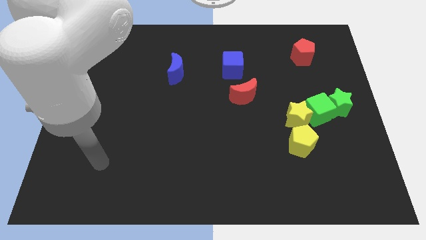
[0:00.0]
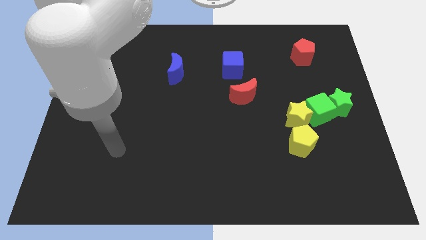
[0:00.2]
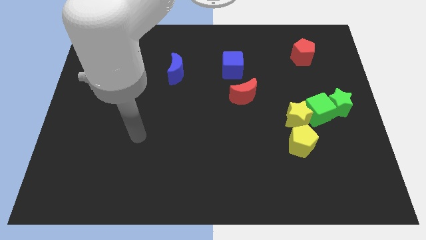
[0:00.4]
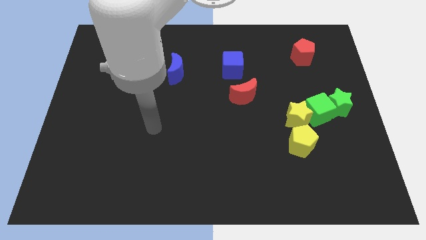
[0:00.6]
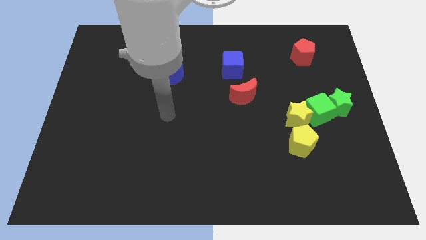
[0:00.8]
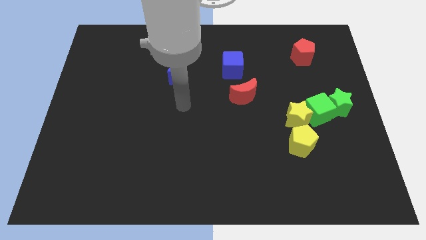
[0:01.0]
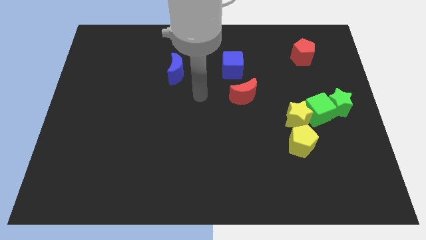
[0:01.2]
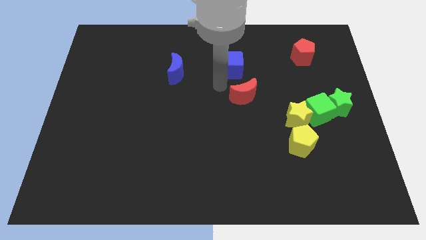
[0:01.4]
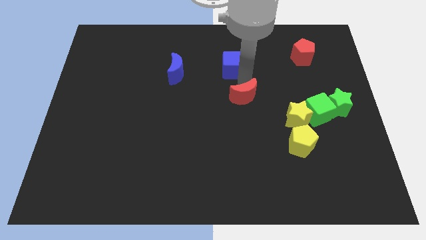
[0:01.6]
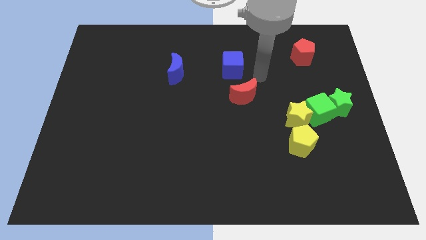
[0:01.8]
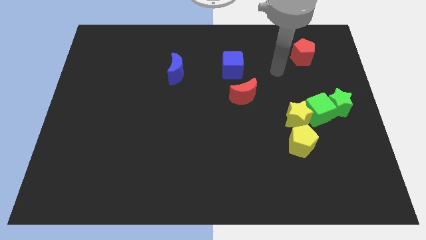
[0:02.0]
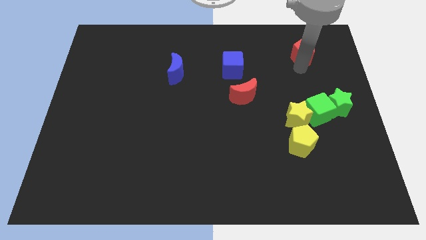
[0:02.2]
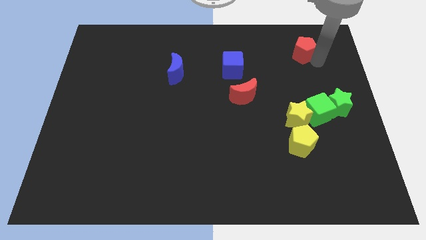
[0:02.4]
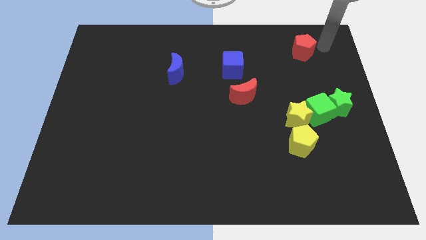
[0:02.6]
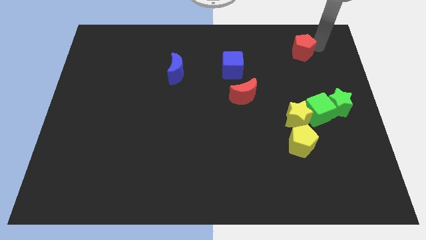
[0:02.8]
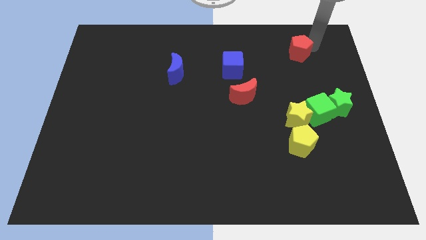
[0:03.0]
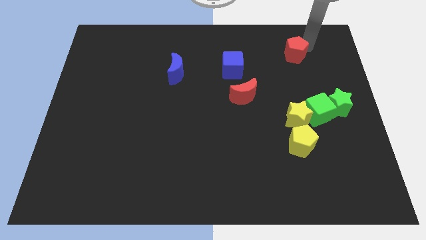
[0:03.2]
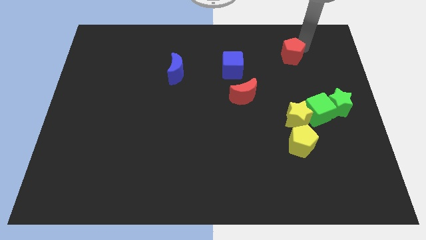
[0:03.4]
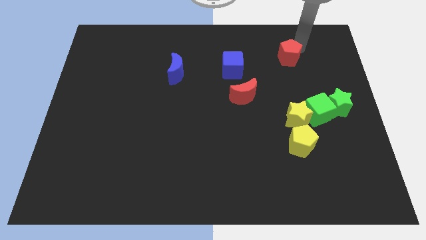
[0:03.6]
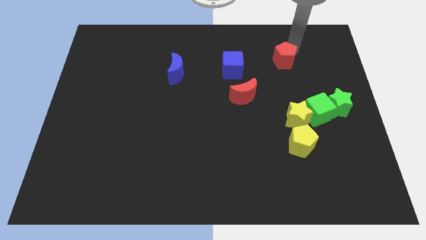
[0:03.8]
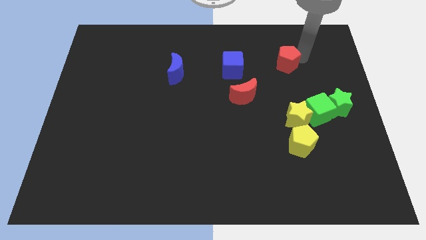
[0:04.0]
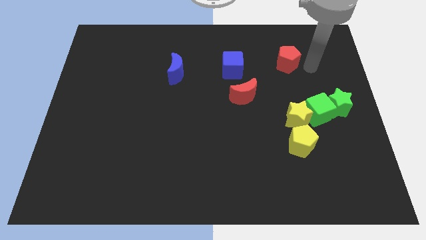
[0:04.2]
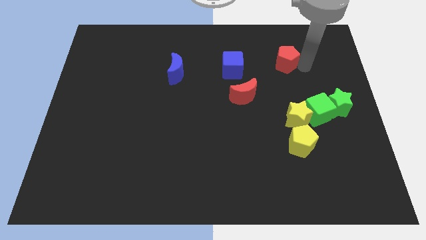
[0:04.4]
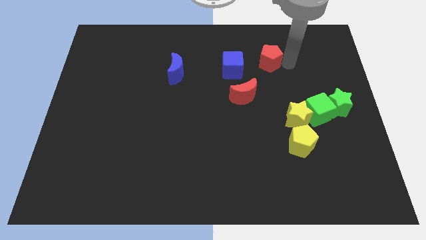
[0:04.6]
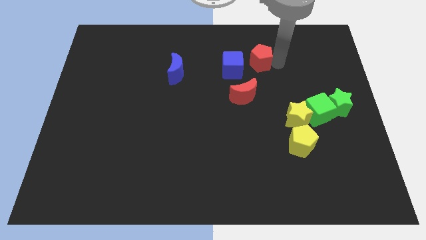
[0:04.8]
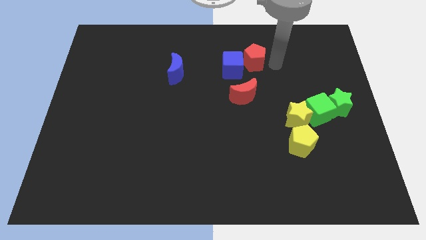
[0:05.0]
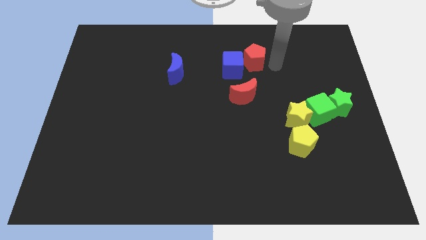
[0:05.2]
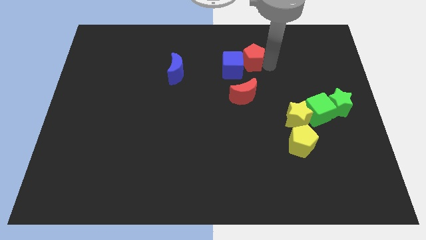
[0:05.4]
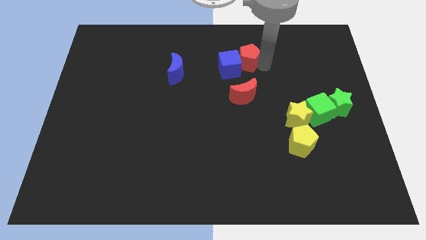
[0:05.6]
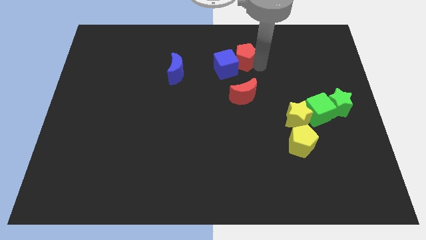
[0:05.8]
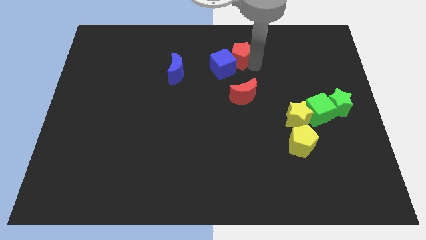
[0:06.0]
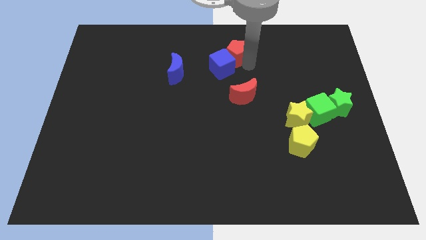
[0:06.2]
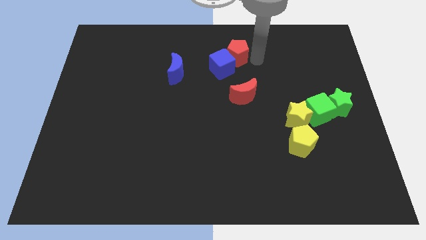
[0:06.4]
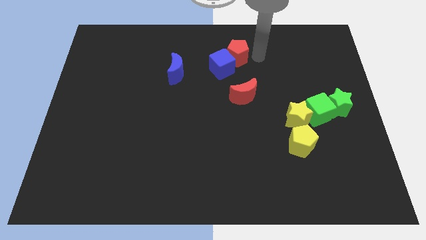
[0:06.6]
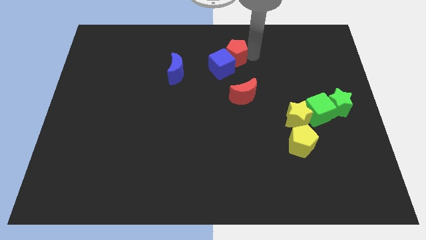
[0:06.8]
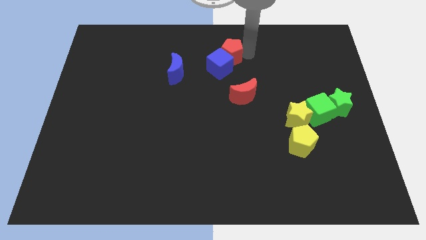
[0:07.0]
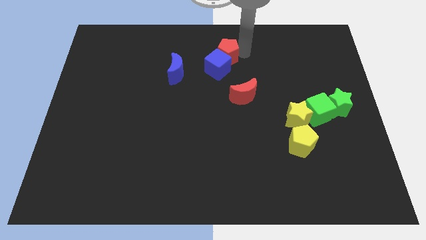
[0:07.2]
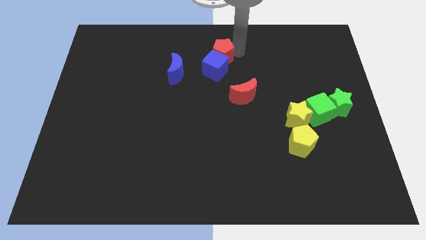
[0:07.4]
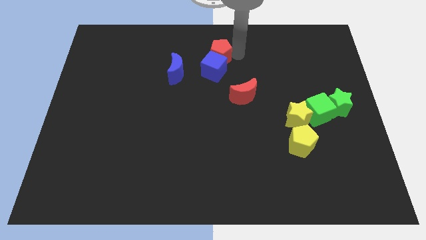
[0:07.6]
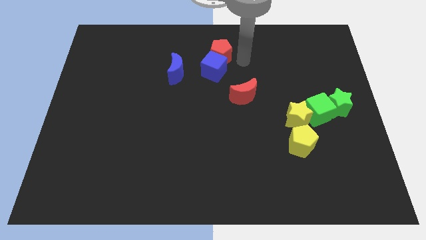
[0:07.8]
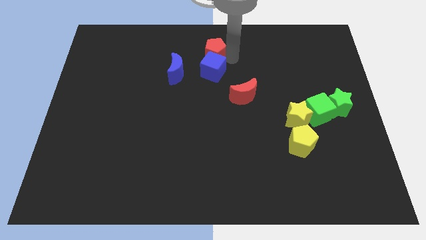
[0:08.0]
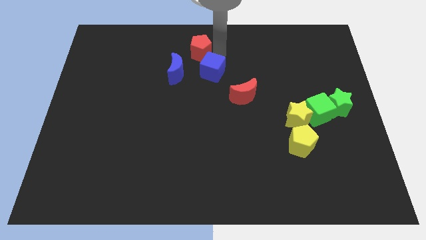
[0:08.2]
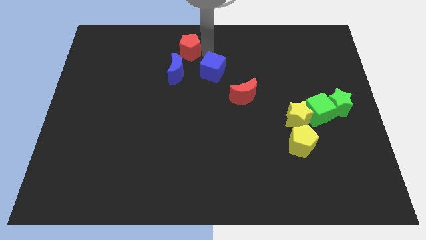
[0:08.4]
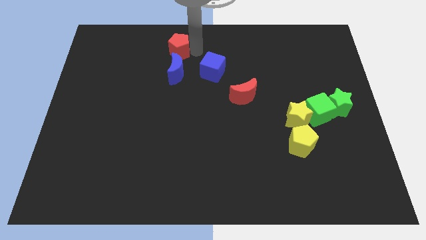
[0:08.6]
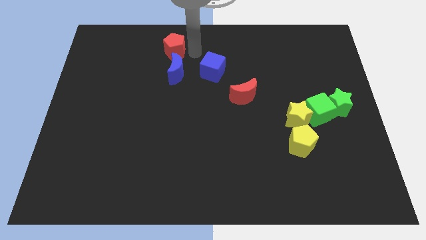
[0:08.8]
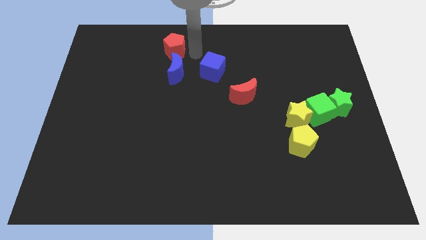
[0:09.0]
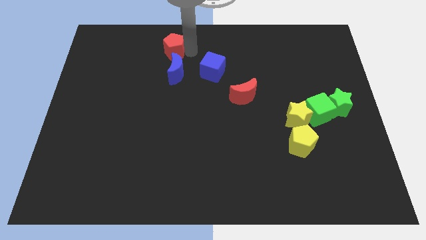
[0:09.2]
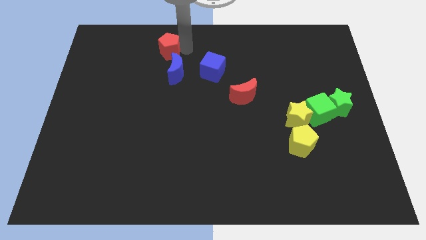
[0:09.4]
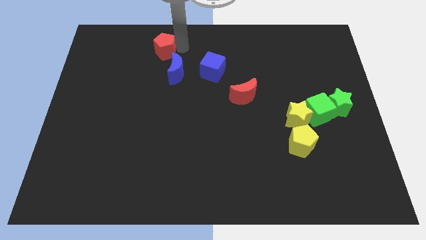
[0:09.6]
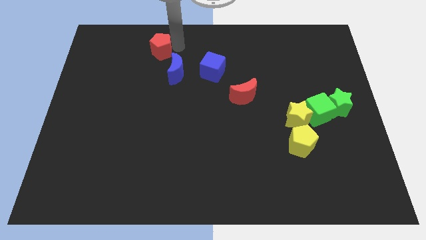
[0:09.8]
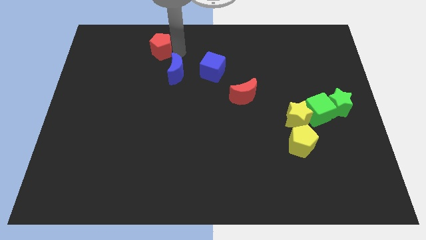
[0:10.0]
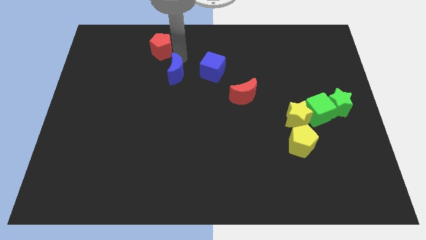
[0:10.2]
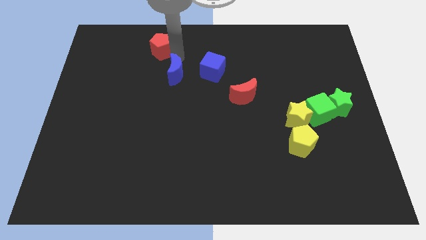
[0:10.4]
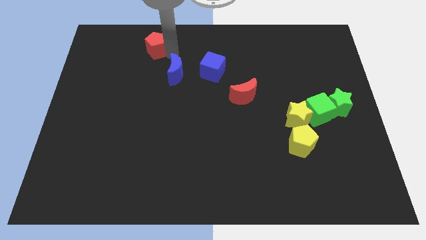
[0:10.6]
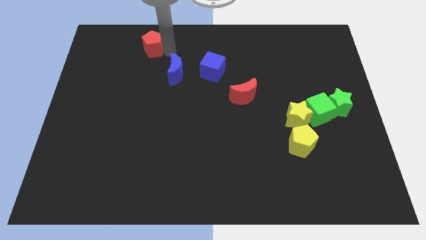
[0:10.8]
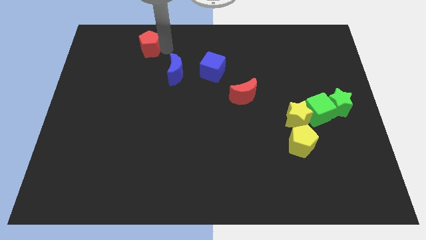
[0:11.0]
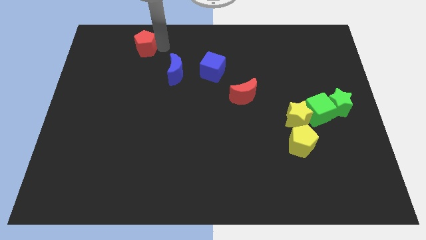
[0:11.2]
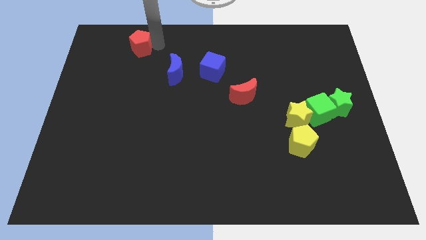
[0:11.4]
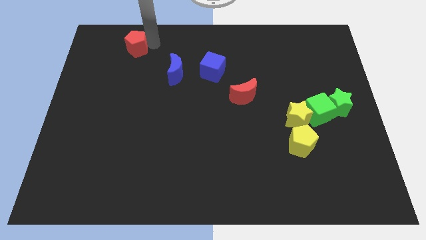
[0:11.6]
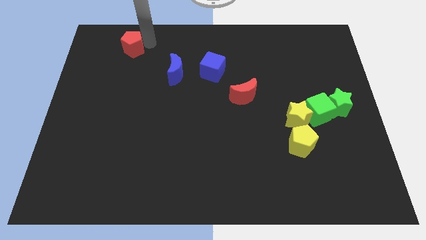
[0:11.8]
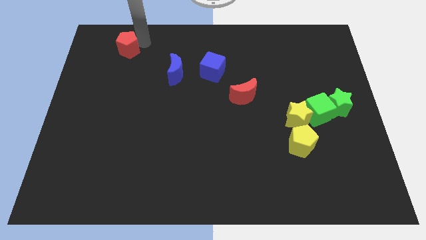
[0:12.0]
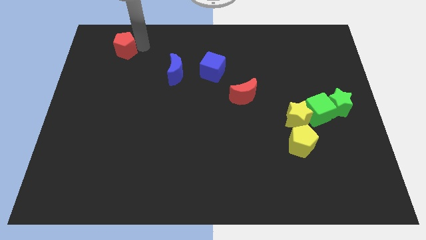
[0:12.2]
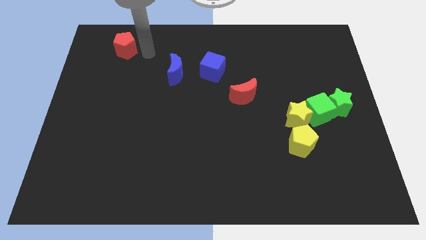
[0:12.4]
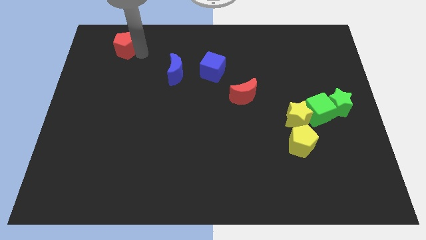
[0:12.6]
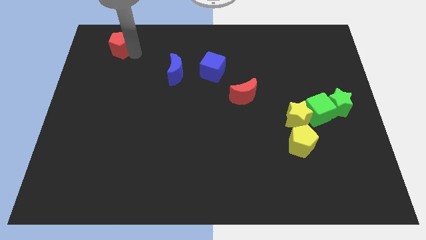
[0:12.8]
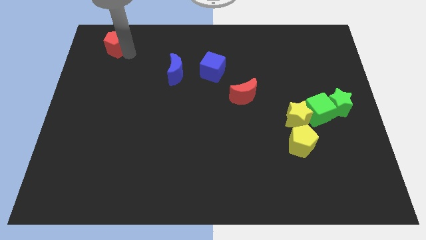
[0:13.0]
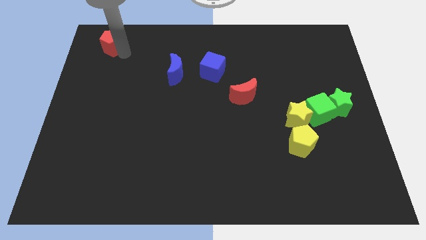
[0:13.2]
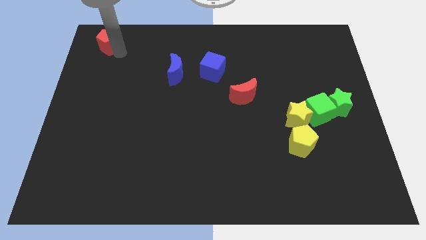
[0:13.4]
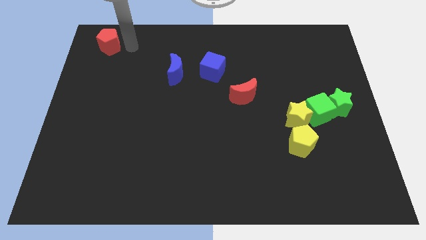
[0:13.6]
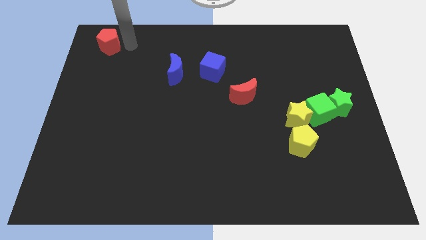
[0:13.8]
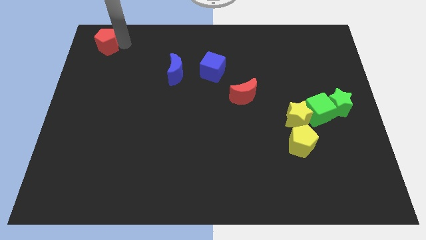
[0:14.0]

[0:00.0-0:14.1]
put the red pentagon to the top left corner

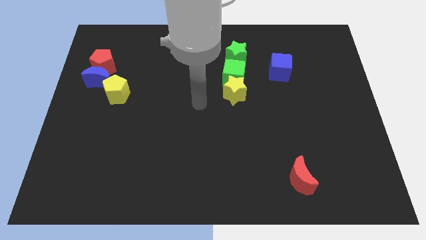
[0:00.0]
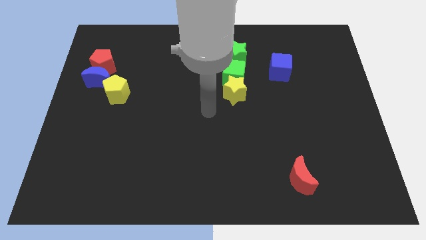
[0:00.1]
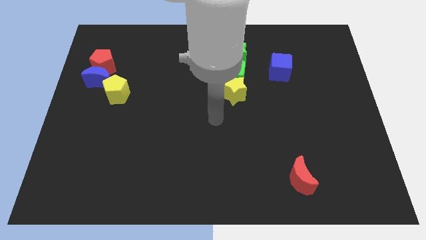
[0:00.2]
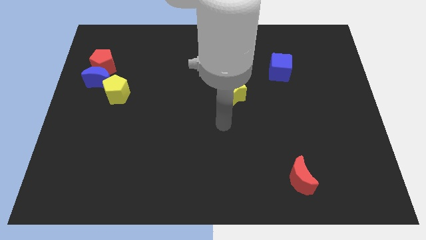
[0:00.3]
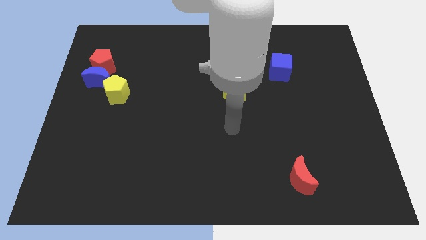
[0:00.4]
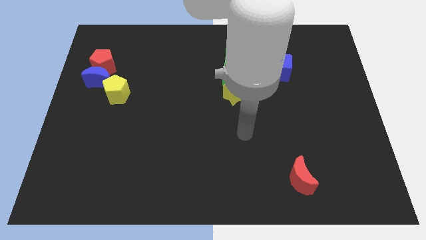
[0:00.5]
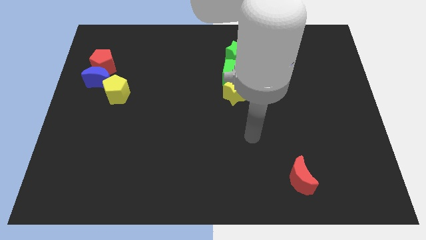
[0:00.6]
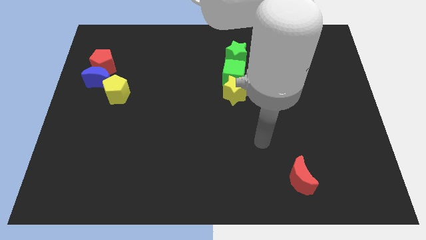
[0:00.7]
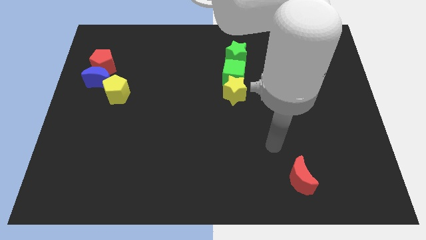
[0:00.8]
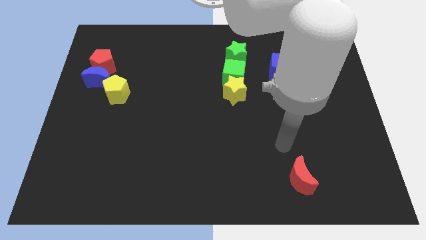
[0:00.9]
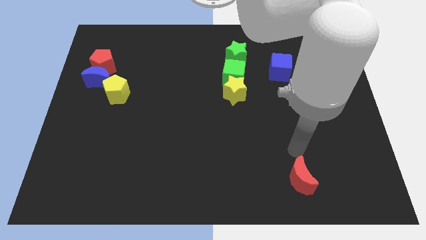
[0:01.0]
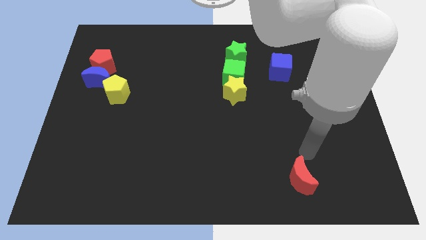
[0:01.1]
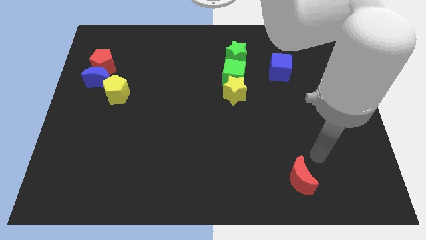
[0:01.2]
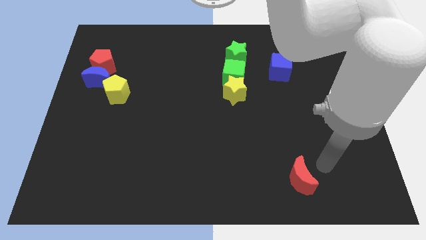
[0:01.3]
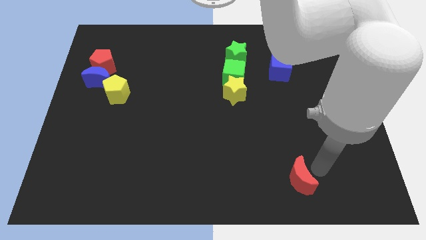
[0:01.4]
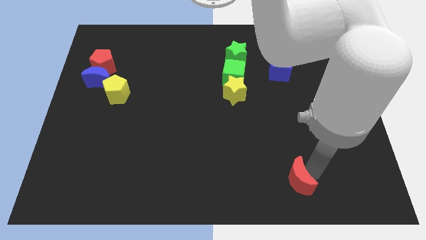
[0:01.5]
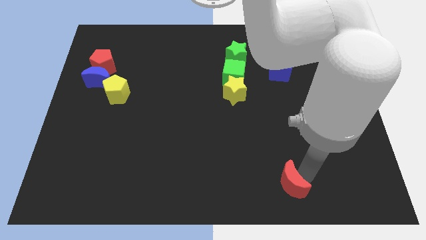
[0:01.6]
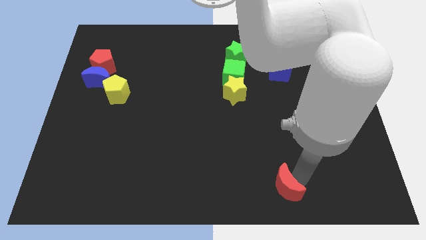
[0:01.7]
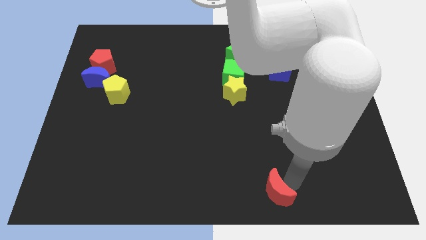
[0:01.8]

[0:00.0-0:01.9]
push the red moon to the bottom side
